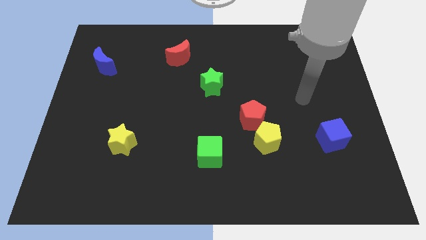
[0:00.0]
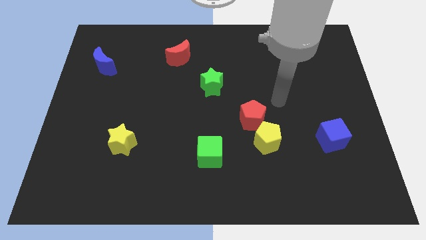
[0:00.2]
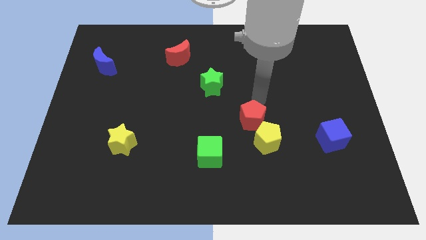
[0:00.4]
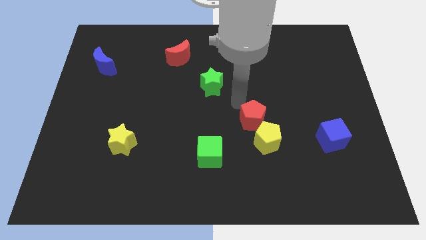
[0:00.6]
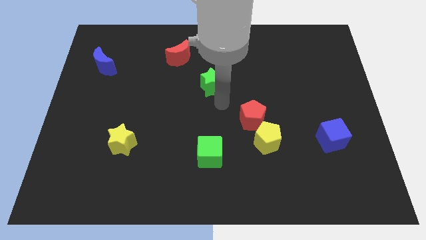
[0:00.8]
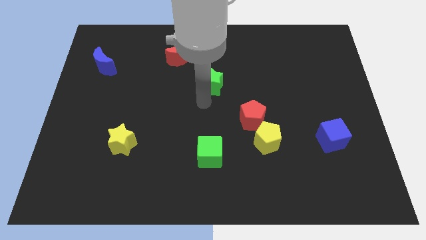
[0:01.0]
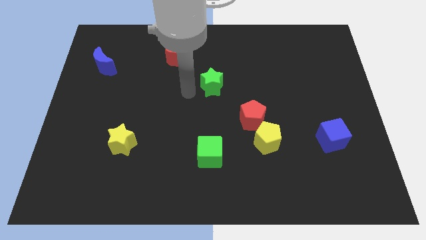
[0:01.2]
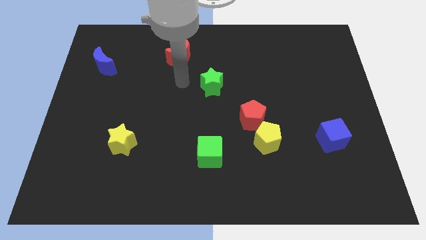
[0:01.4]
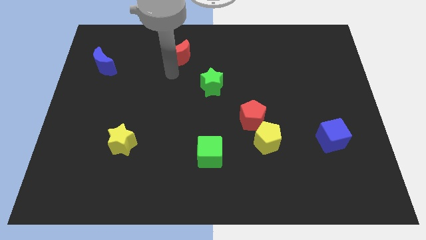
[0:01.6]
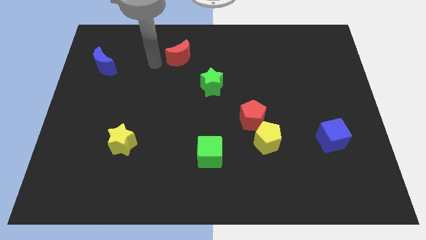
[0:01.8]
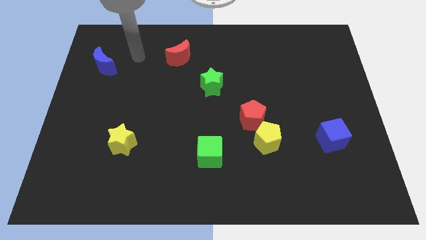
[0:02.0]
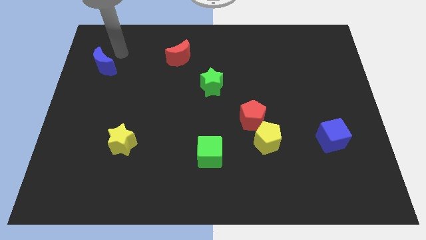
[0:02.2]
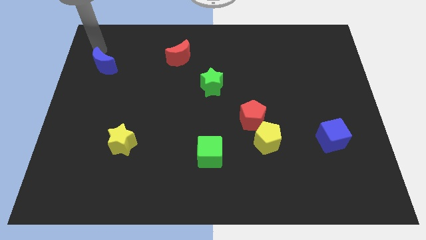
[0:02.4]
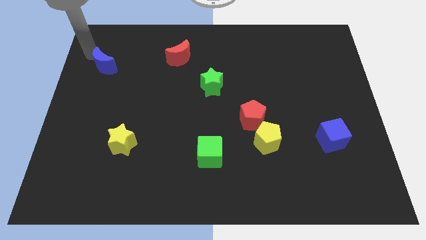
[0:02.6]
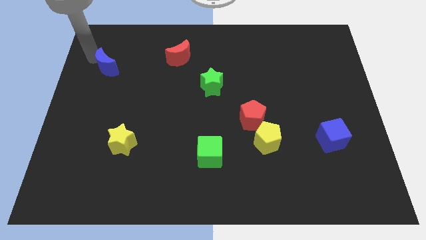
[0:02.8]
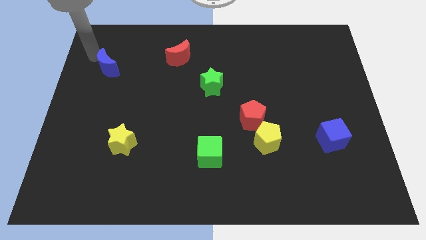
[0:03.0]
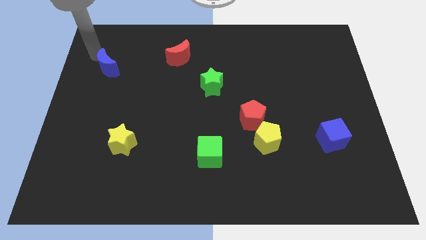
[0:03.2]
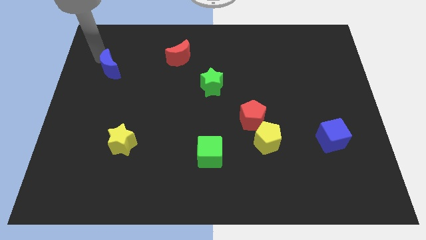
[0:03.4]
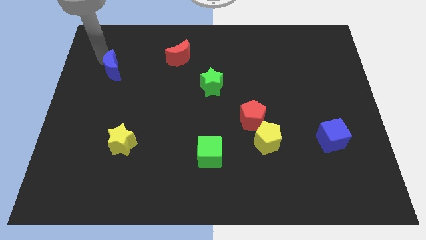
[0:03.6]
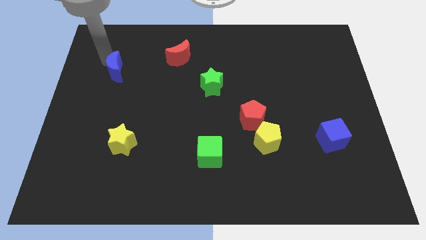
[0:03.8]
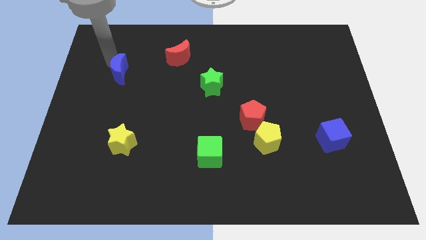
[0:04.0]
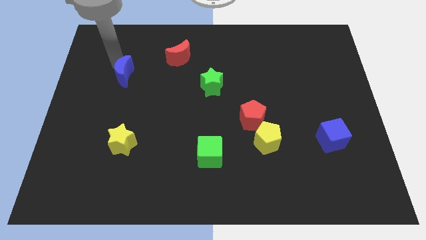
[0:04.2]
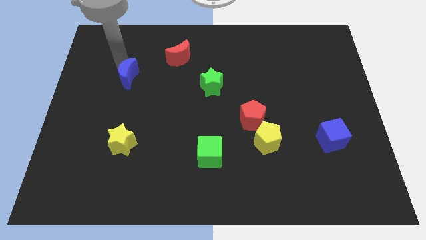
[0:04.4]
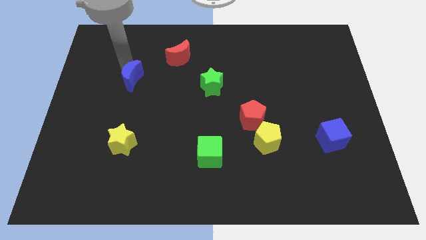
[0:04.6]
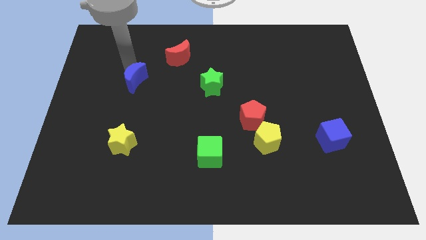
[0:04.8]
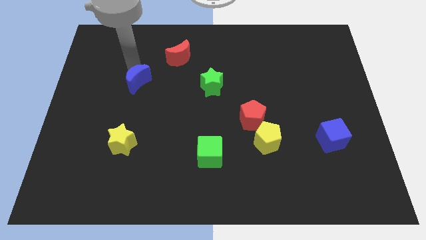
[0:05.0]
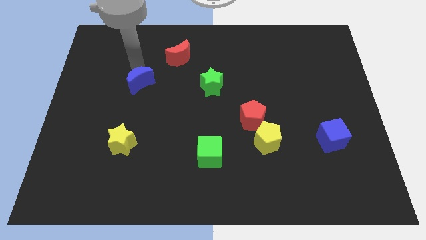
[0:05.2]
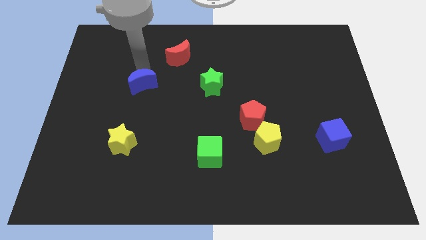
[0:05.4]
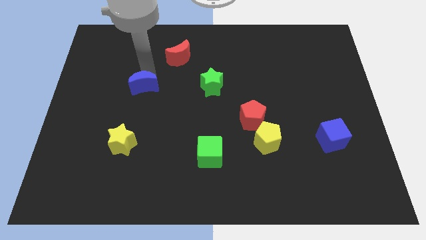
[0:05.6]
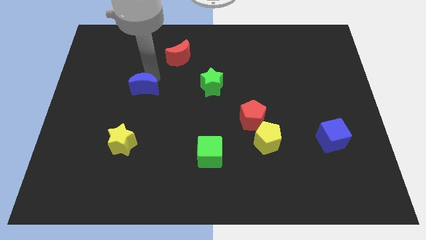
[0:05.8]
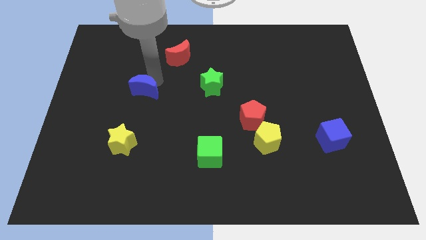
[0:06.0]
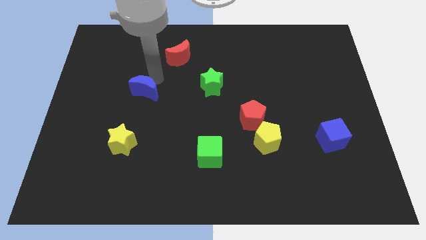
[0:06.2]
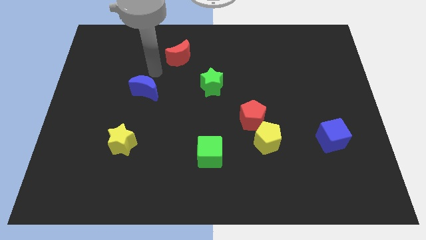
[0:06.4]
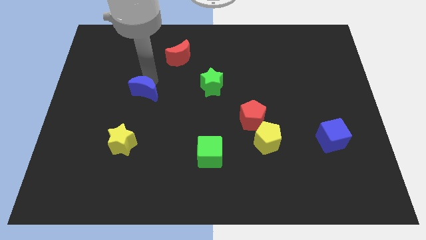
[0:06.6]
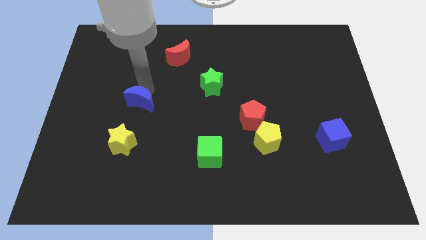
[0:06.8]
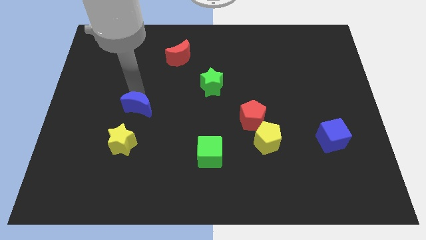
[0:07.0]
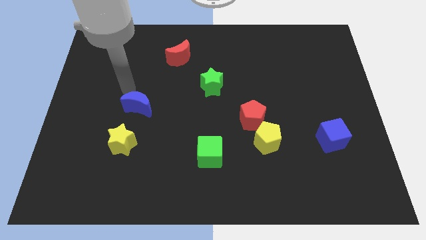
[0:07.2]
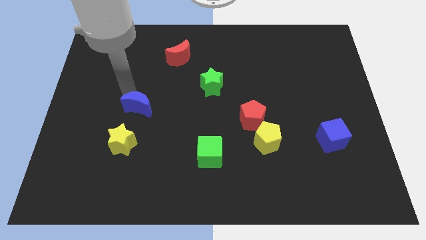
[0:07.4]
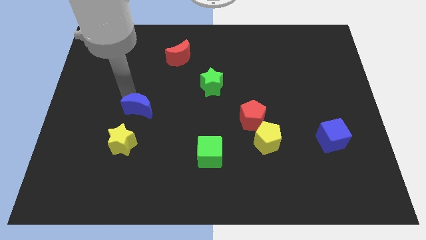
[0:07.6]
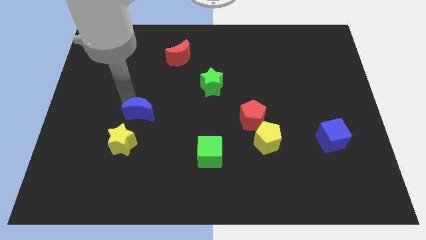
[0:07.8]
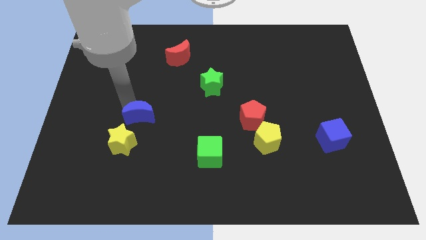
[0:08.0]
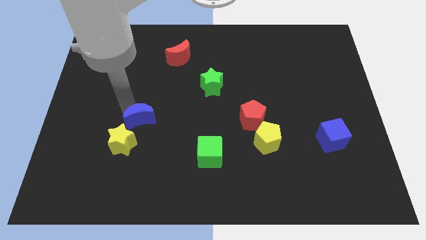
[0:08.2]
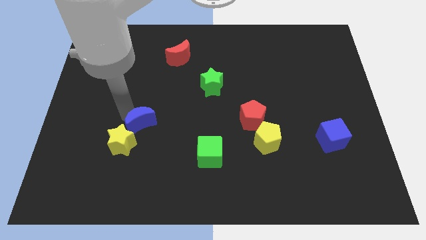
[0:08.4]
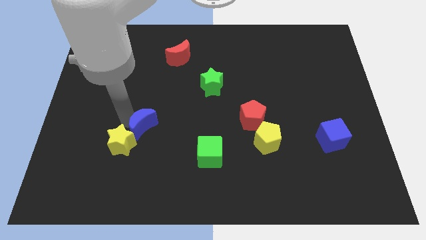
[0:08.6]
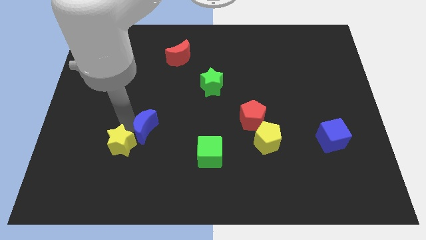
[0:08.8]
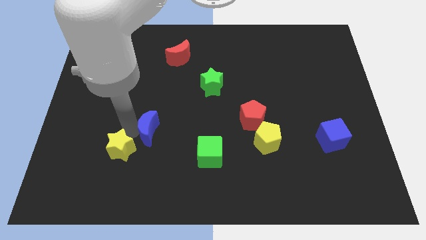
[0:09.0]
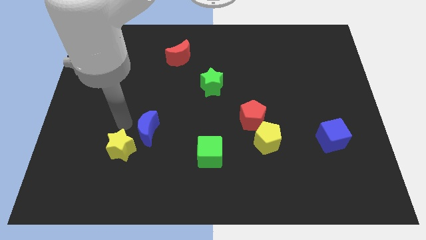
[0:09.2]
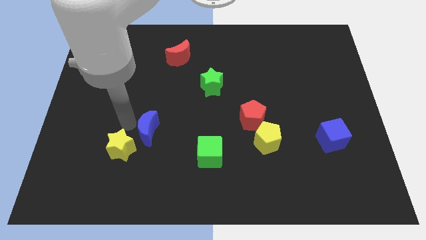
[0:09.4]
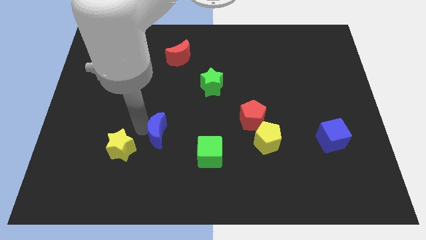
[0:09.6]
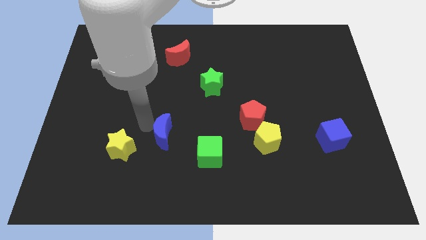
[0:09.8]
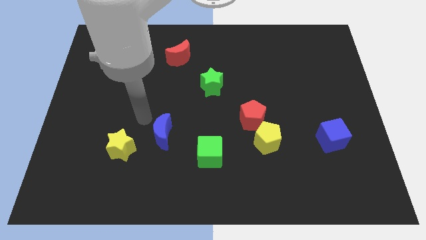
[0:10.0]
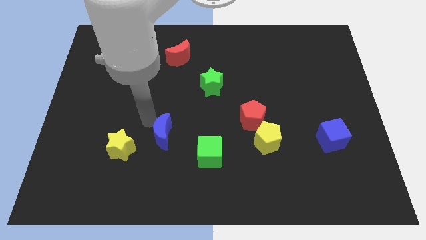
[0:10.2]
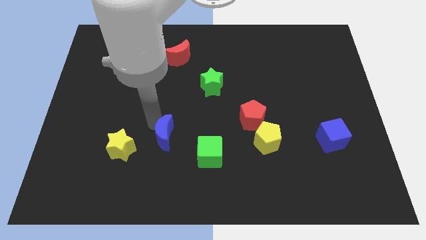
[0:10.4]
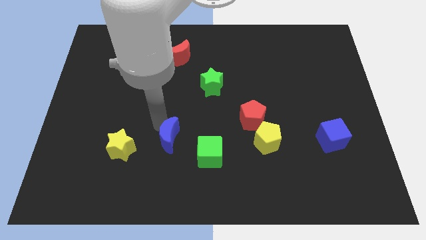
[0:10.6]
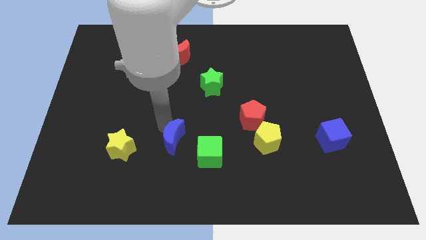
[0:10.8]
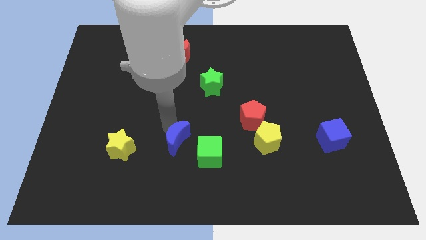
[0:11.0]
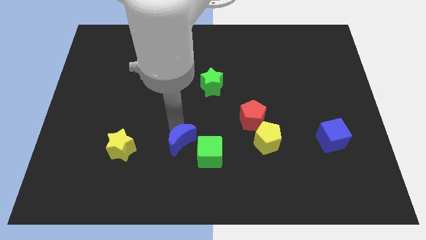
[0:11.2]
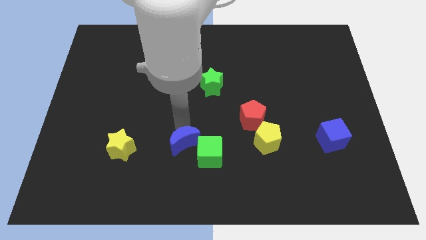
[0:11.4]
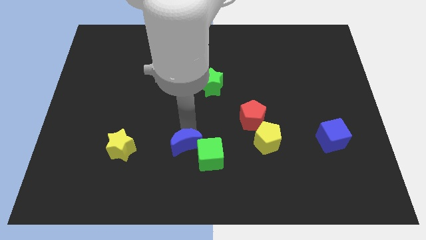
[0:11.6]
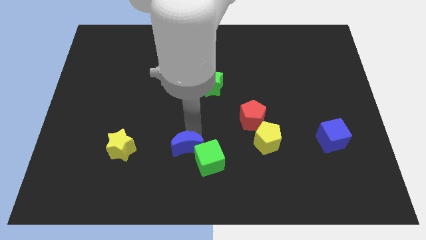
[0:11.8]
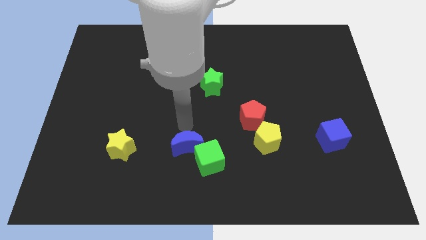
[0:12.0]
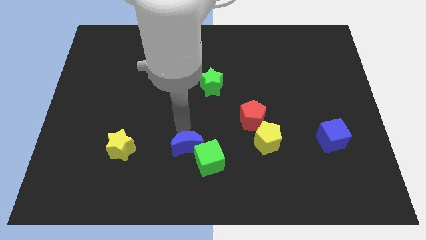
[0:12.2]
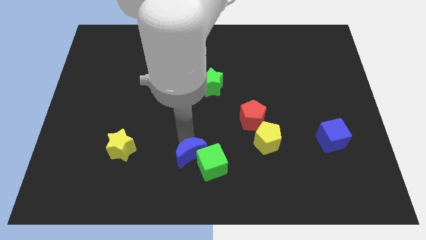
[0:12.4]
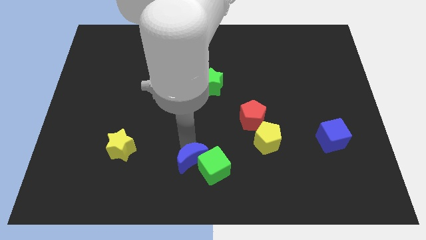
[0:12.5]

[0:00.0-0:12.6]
push the blue moon to the bottom side
